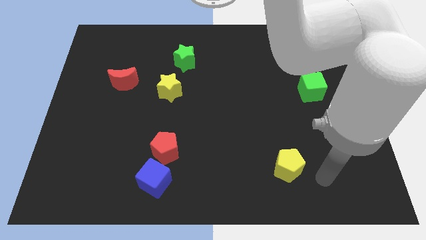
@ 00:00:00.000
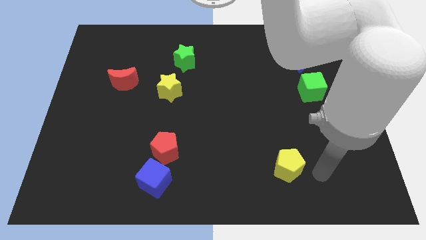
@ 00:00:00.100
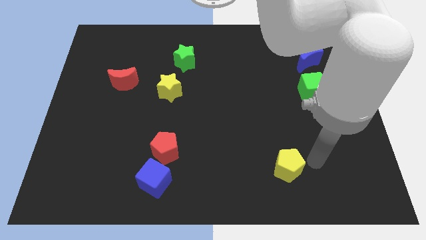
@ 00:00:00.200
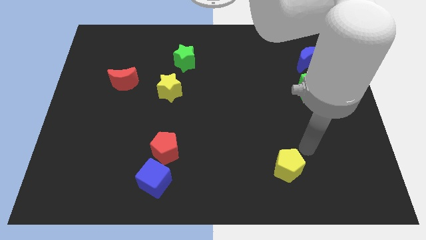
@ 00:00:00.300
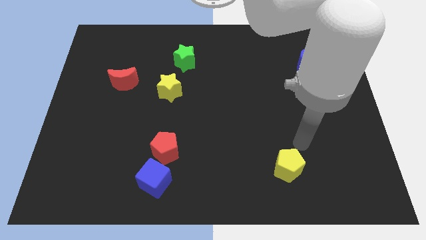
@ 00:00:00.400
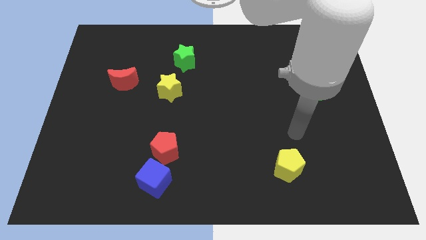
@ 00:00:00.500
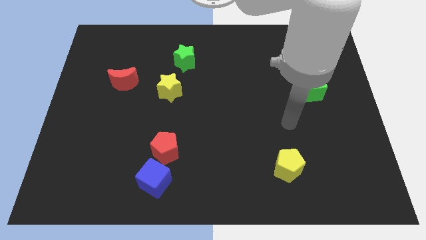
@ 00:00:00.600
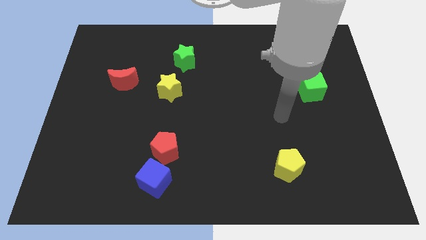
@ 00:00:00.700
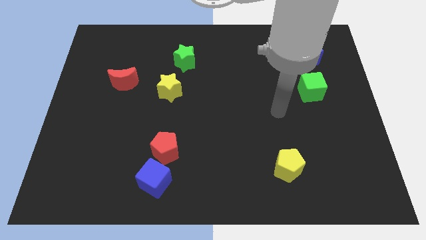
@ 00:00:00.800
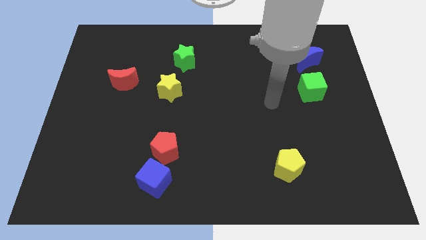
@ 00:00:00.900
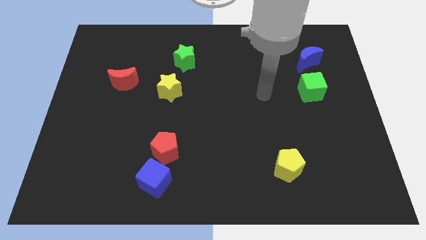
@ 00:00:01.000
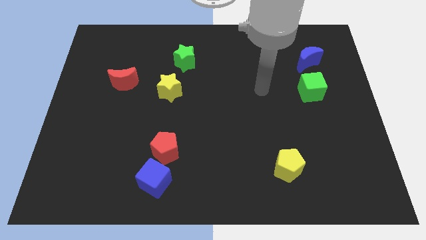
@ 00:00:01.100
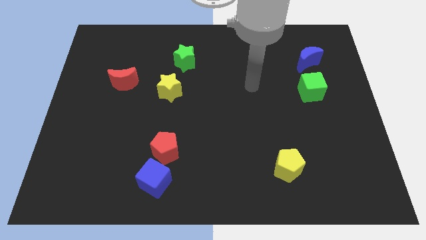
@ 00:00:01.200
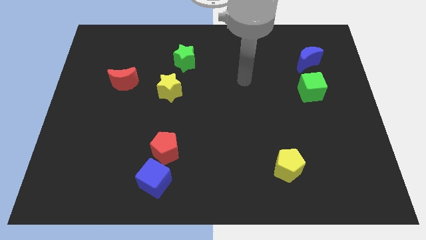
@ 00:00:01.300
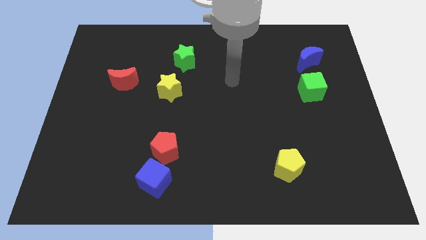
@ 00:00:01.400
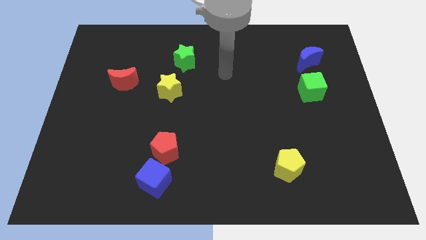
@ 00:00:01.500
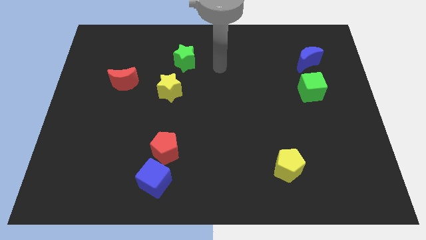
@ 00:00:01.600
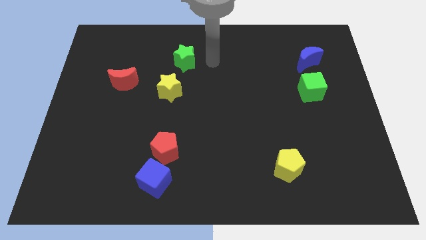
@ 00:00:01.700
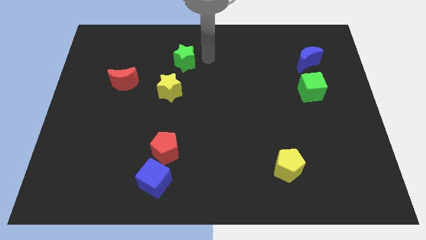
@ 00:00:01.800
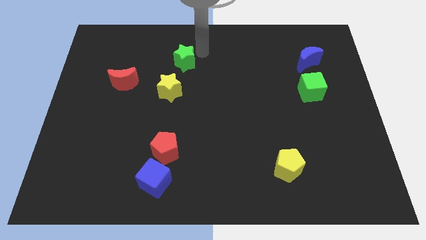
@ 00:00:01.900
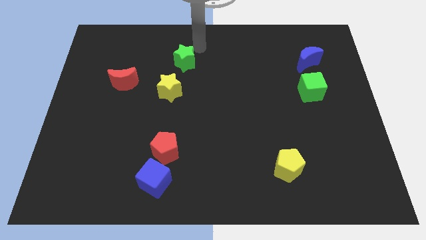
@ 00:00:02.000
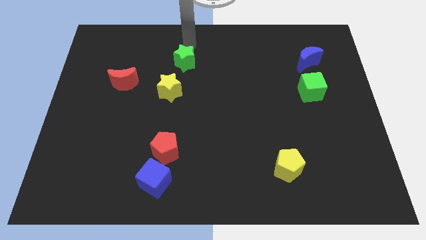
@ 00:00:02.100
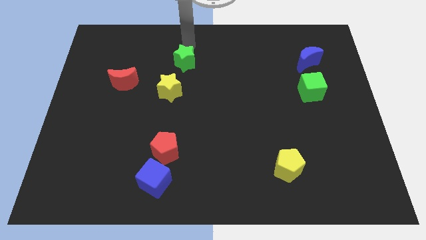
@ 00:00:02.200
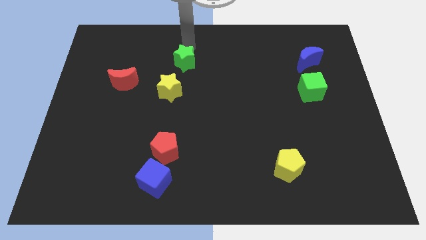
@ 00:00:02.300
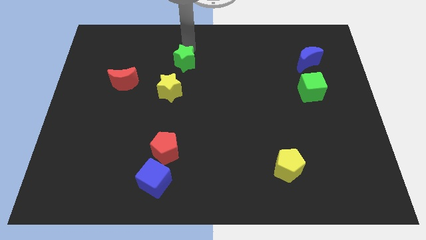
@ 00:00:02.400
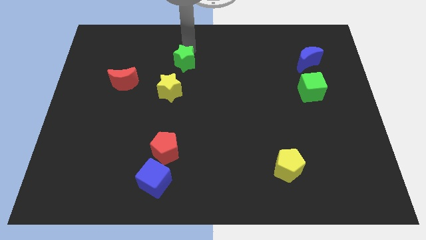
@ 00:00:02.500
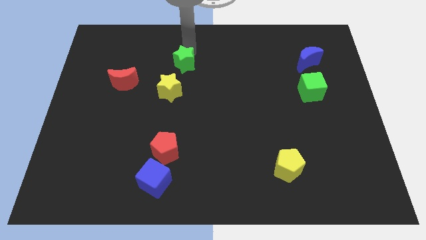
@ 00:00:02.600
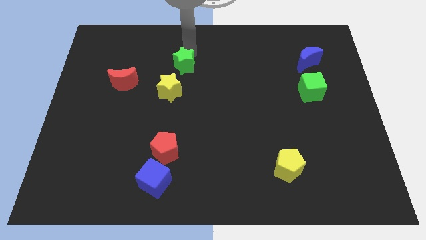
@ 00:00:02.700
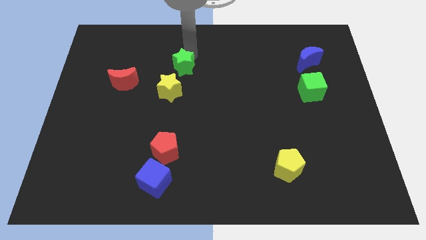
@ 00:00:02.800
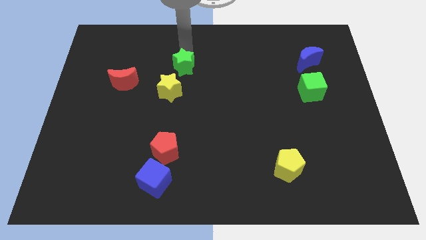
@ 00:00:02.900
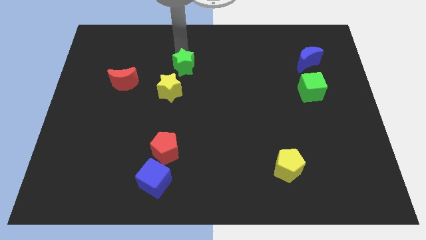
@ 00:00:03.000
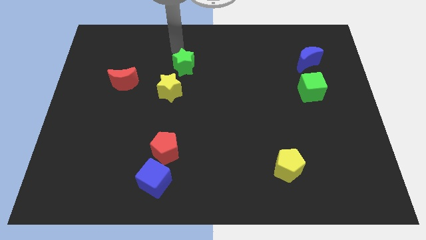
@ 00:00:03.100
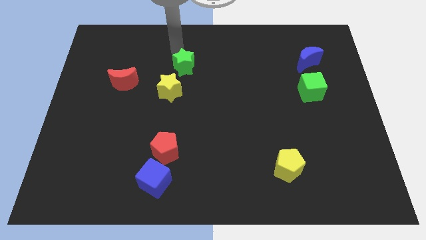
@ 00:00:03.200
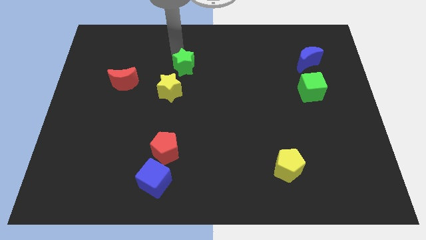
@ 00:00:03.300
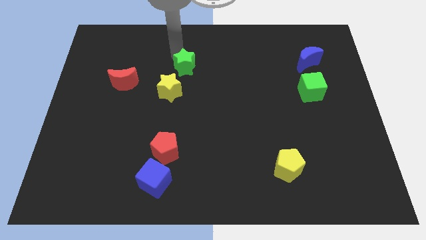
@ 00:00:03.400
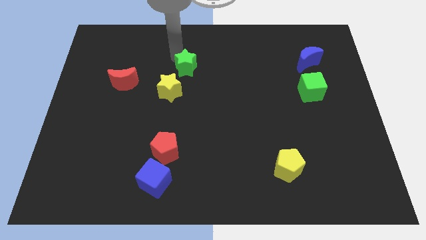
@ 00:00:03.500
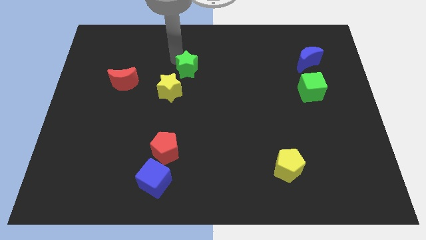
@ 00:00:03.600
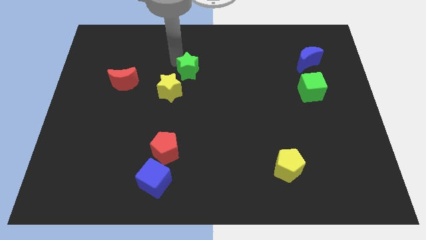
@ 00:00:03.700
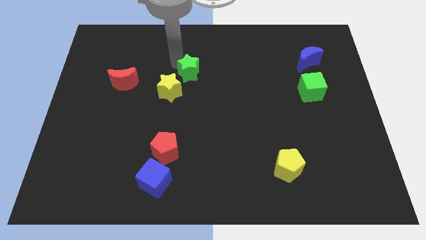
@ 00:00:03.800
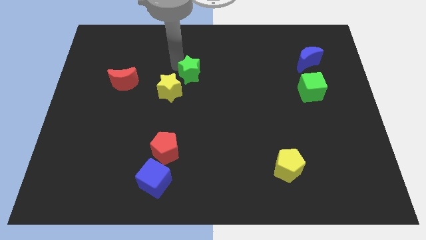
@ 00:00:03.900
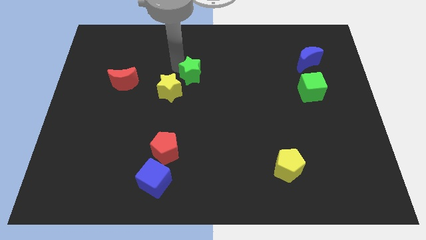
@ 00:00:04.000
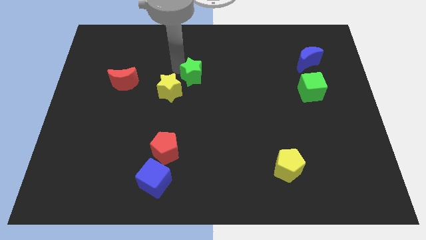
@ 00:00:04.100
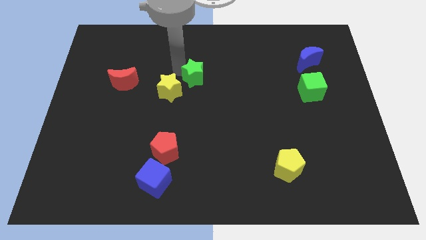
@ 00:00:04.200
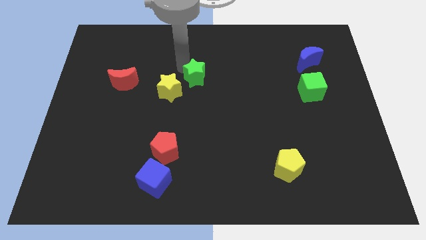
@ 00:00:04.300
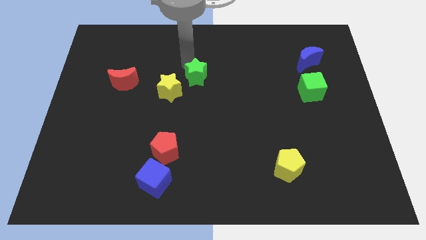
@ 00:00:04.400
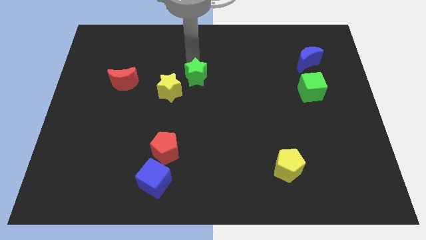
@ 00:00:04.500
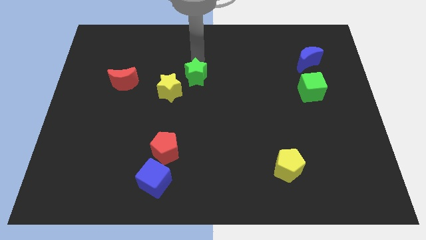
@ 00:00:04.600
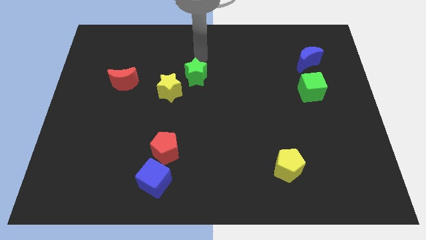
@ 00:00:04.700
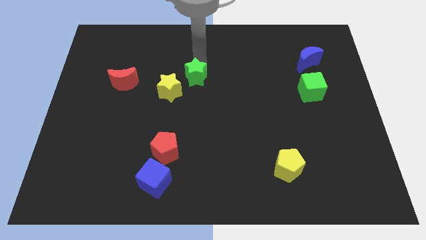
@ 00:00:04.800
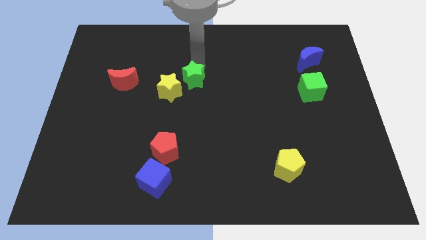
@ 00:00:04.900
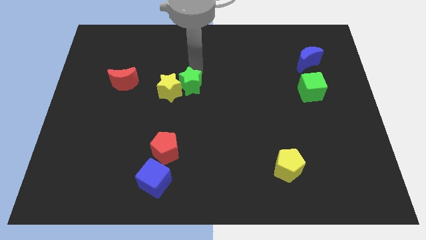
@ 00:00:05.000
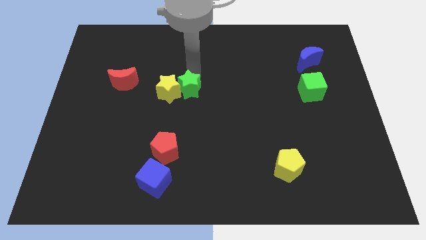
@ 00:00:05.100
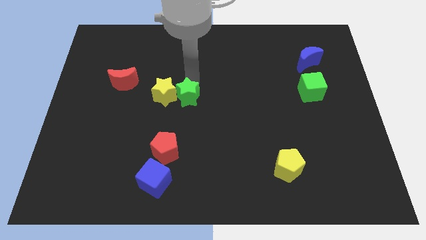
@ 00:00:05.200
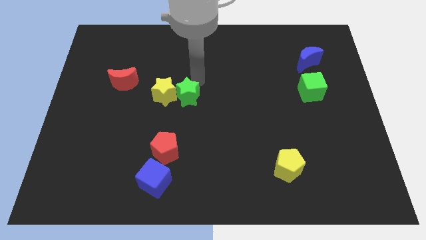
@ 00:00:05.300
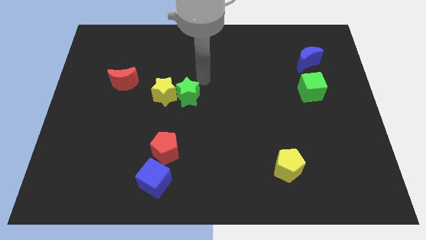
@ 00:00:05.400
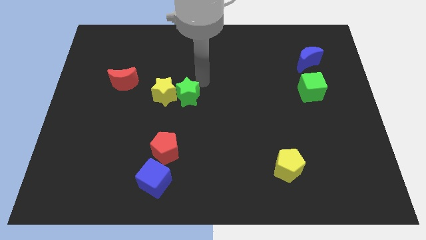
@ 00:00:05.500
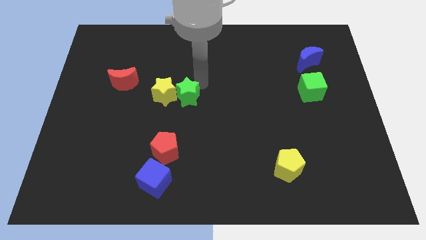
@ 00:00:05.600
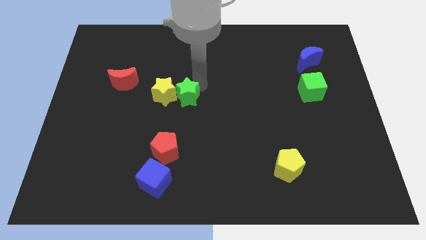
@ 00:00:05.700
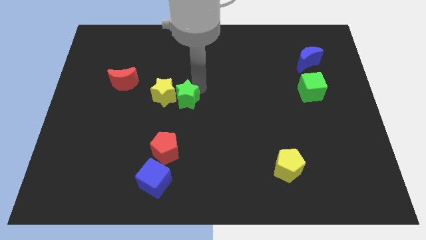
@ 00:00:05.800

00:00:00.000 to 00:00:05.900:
push the green star above the red pentagon
